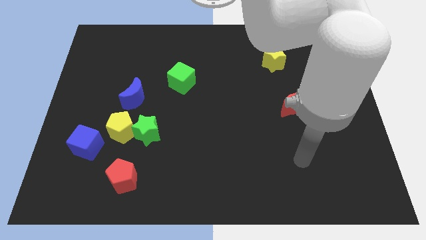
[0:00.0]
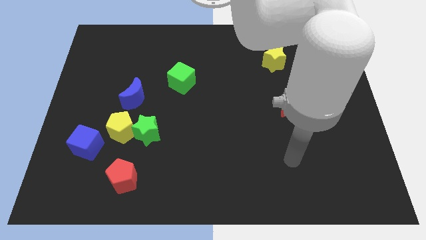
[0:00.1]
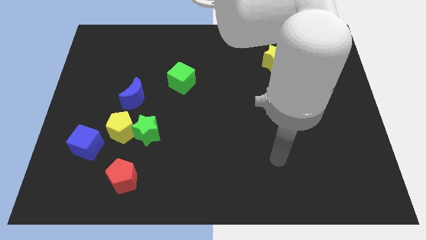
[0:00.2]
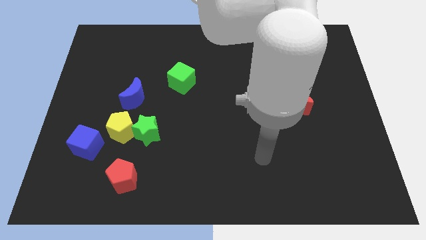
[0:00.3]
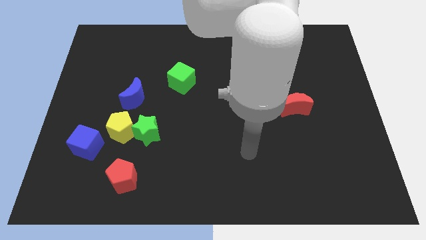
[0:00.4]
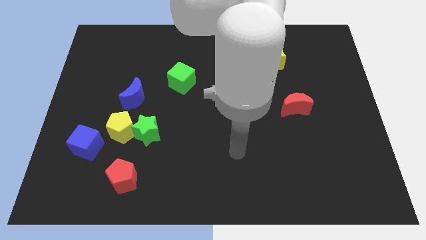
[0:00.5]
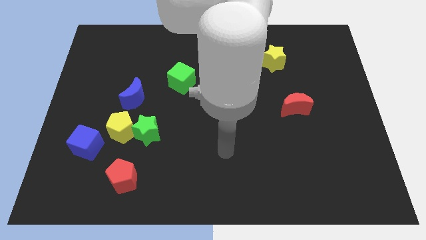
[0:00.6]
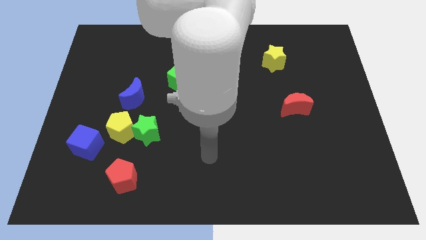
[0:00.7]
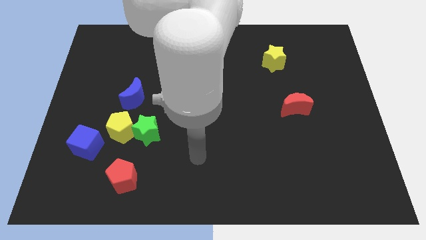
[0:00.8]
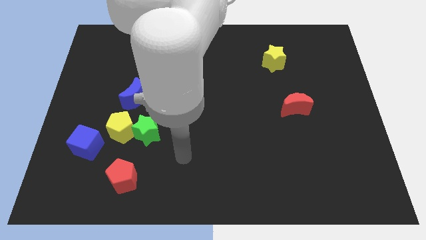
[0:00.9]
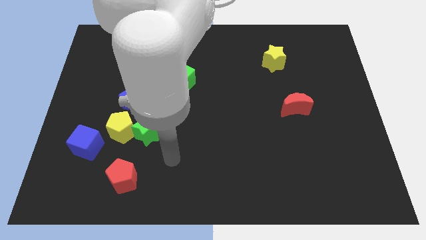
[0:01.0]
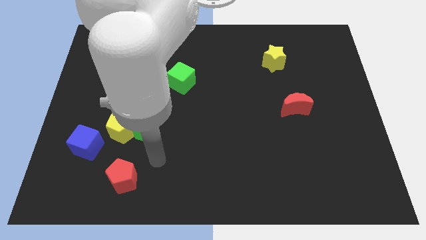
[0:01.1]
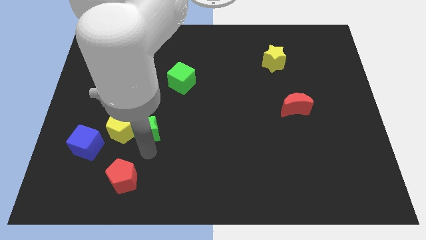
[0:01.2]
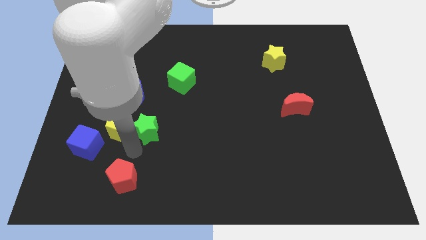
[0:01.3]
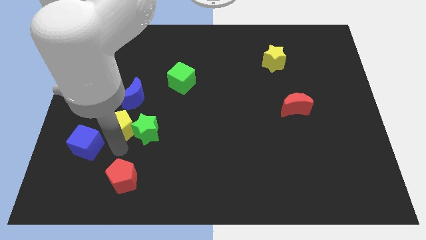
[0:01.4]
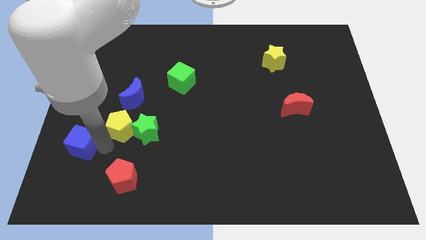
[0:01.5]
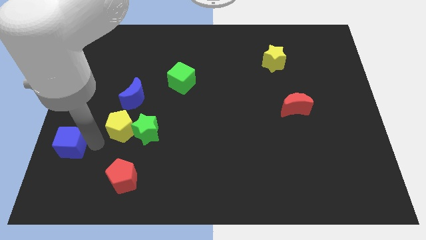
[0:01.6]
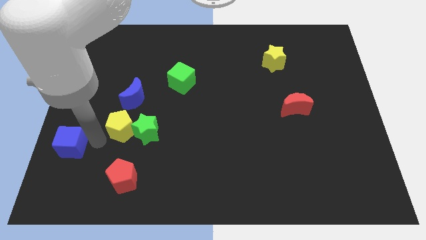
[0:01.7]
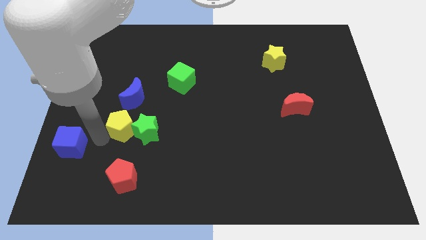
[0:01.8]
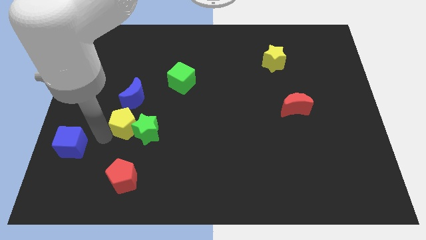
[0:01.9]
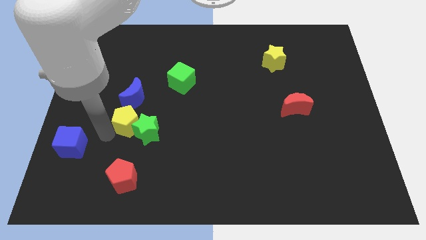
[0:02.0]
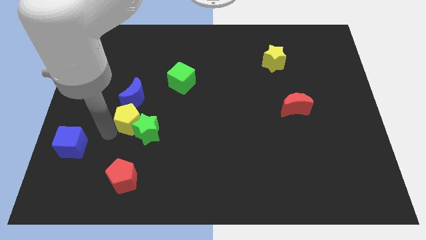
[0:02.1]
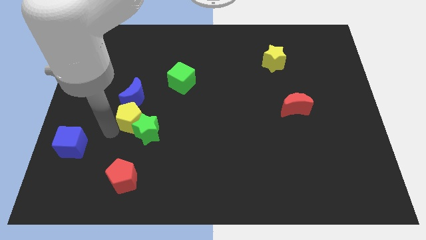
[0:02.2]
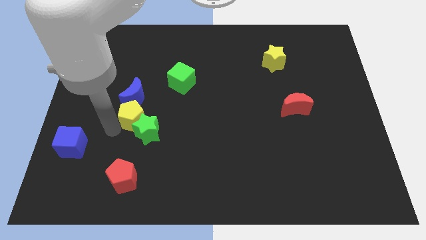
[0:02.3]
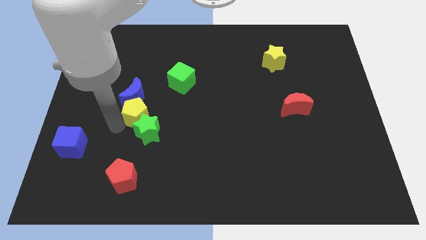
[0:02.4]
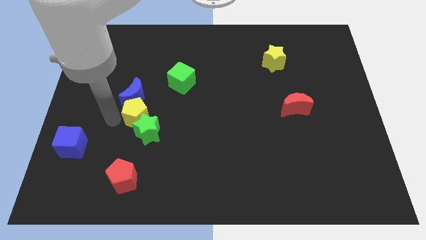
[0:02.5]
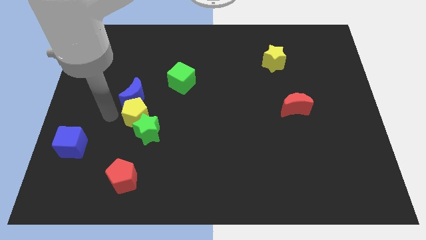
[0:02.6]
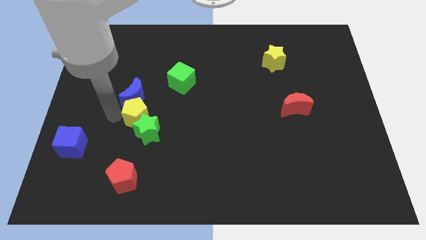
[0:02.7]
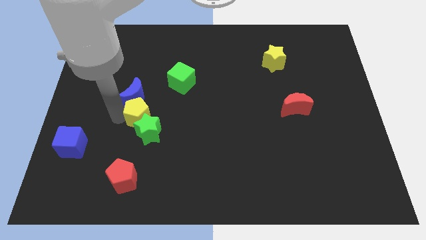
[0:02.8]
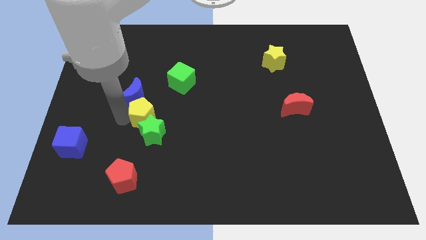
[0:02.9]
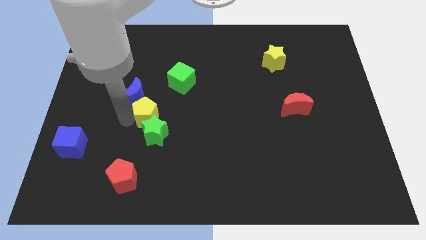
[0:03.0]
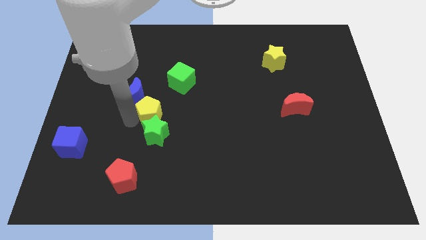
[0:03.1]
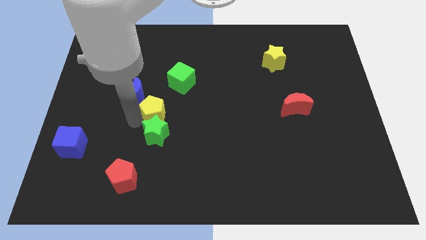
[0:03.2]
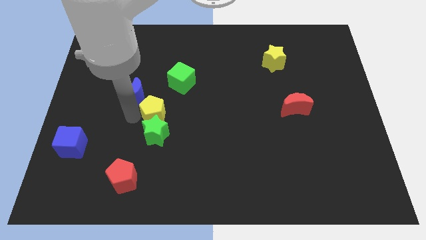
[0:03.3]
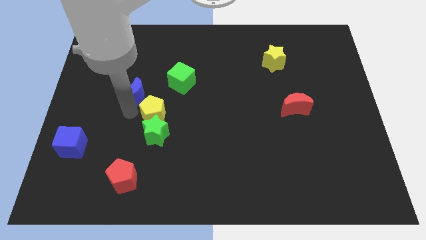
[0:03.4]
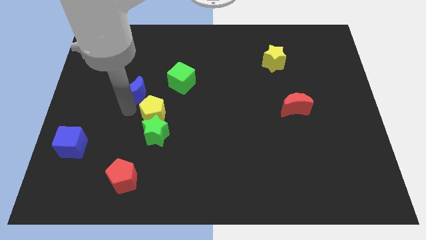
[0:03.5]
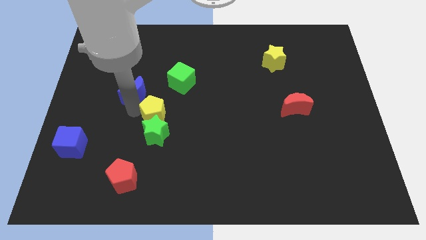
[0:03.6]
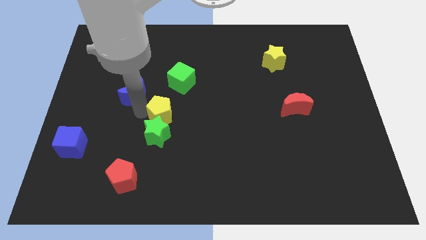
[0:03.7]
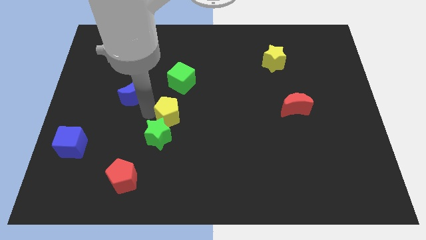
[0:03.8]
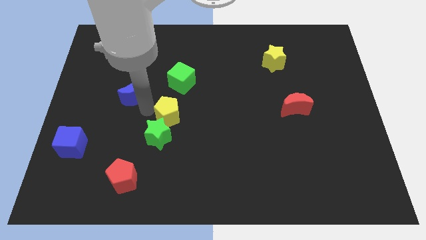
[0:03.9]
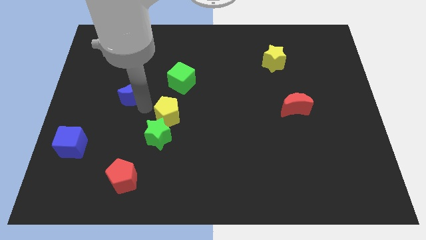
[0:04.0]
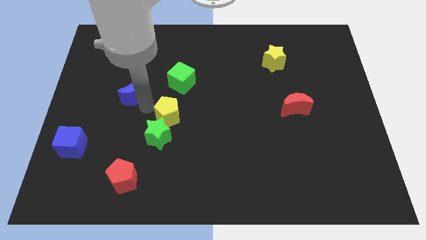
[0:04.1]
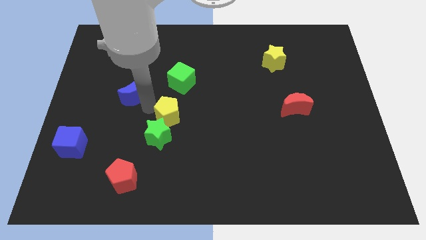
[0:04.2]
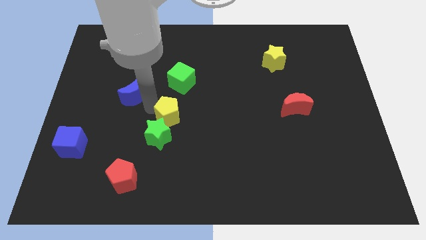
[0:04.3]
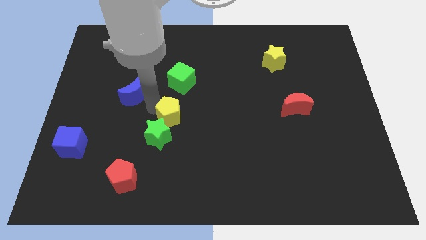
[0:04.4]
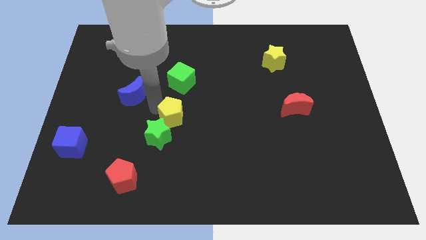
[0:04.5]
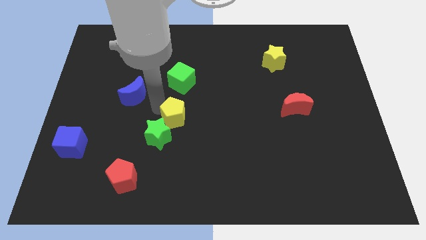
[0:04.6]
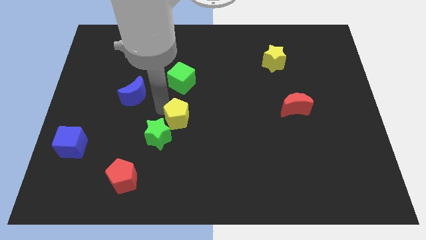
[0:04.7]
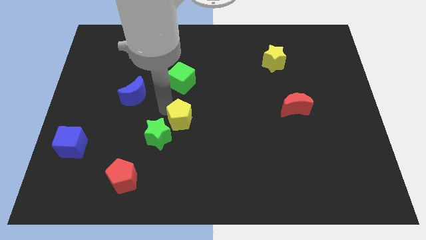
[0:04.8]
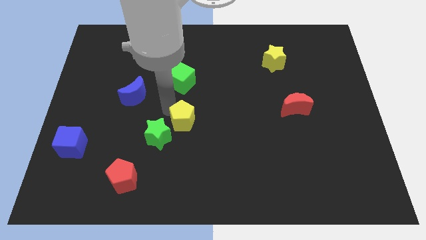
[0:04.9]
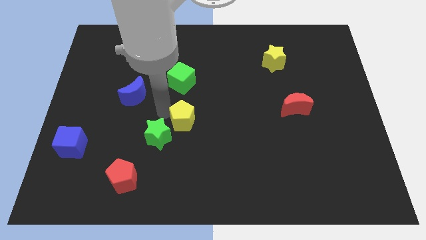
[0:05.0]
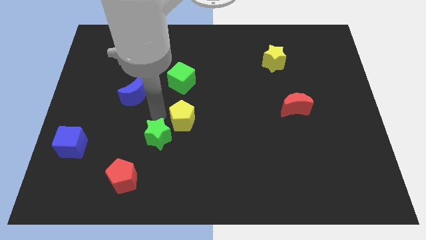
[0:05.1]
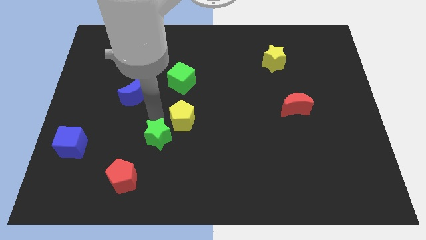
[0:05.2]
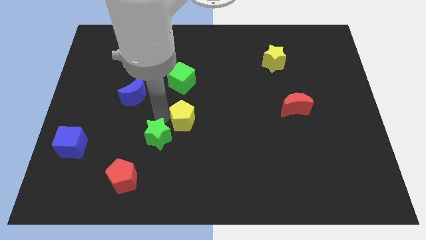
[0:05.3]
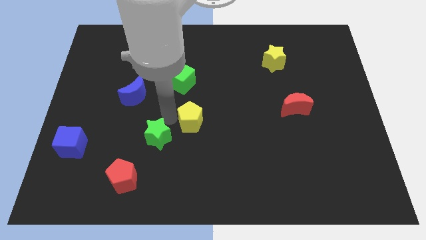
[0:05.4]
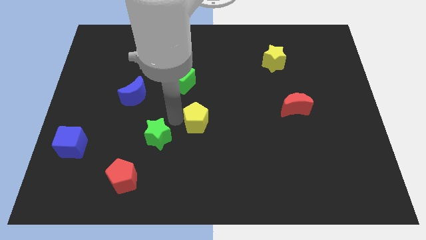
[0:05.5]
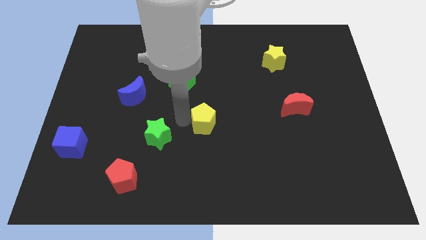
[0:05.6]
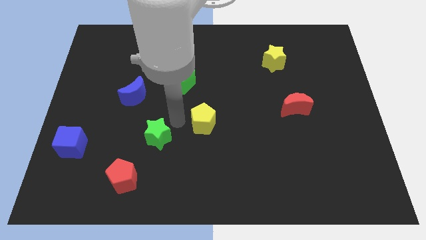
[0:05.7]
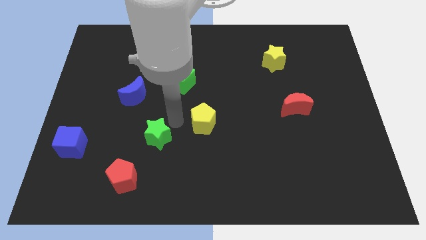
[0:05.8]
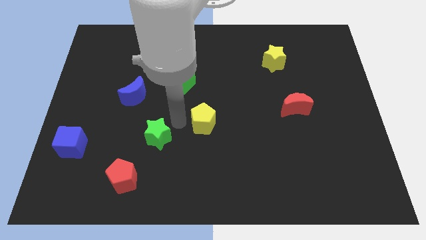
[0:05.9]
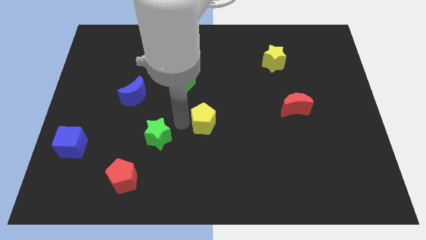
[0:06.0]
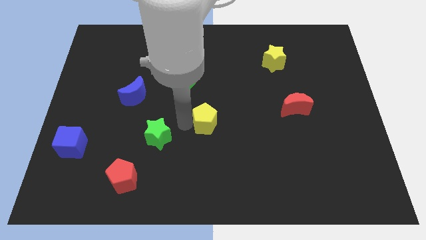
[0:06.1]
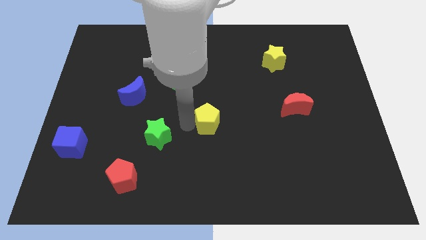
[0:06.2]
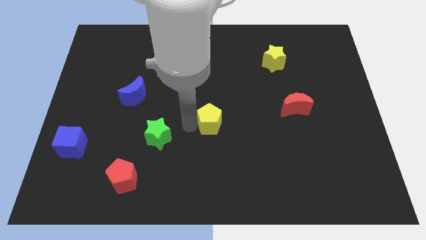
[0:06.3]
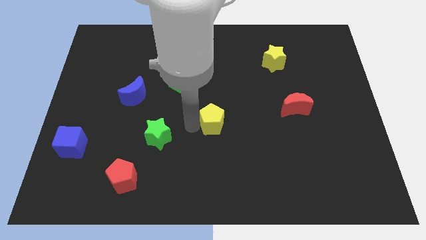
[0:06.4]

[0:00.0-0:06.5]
push the yellow pentagon to the right

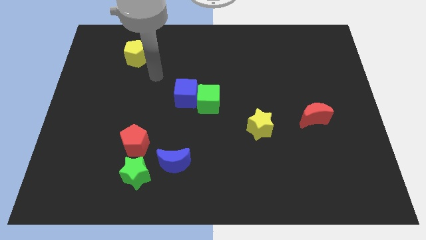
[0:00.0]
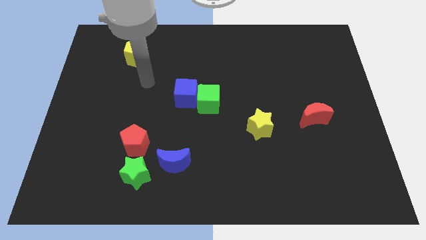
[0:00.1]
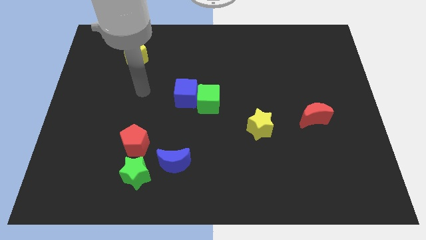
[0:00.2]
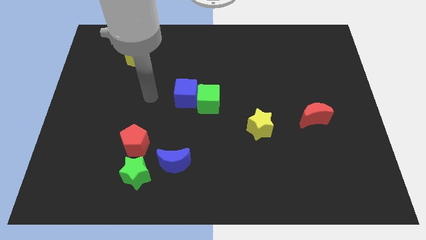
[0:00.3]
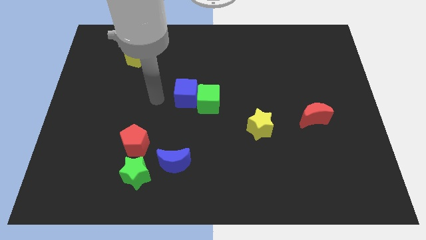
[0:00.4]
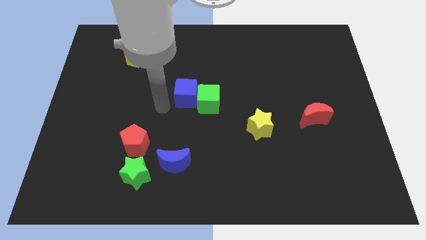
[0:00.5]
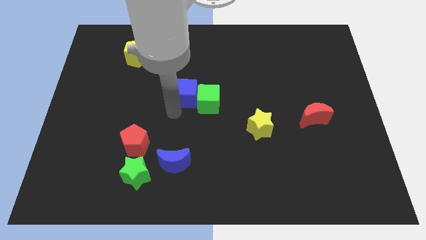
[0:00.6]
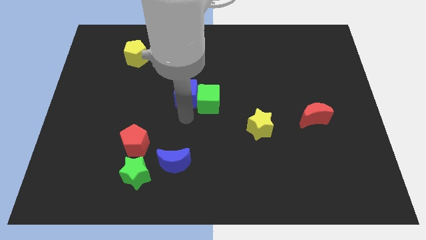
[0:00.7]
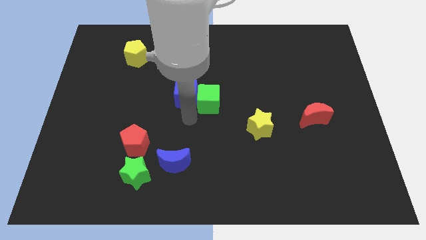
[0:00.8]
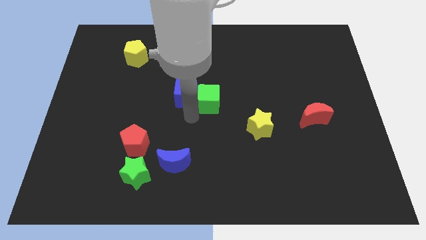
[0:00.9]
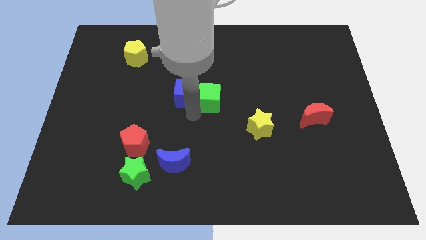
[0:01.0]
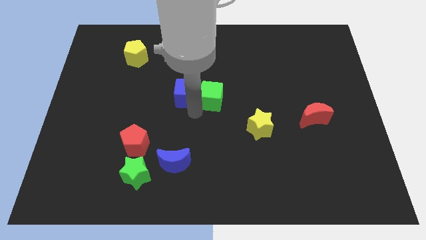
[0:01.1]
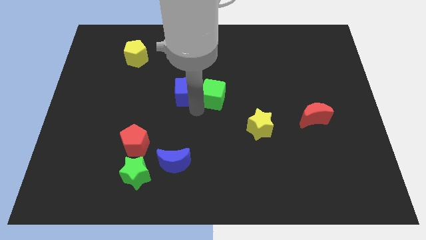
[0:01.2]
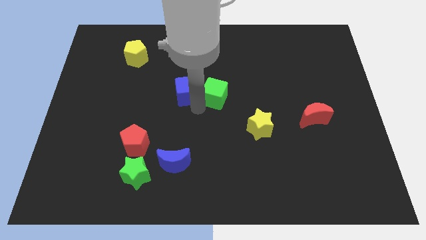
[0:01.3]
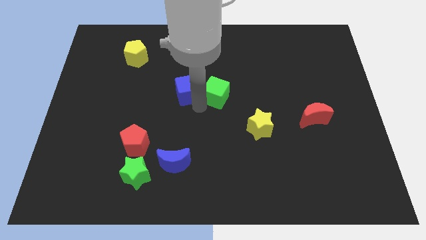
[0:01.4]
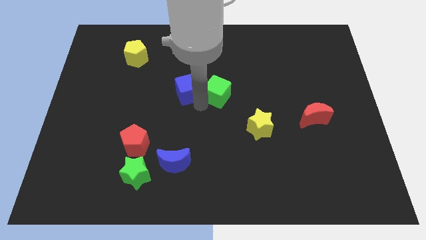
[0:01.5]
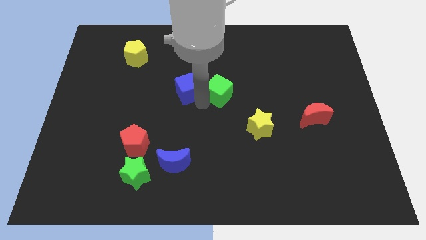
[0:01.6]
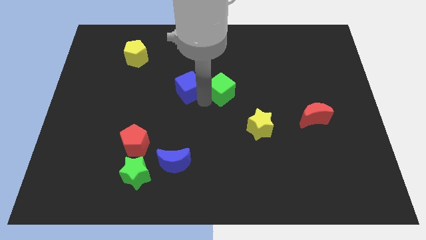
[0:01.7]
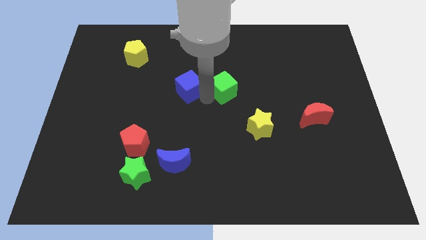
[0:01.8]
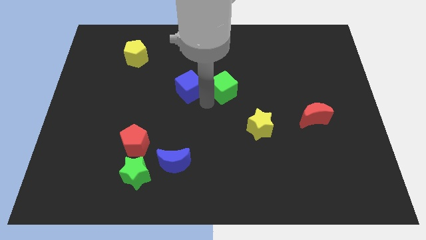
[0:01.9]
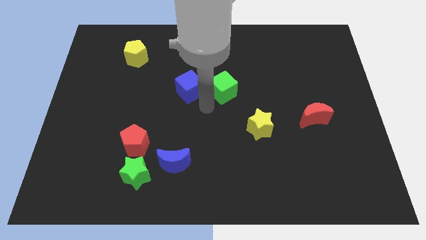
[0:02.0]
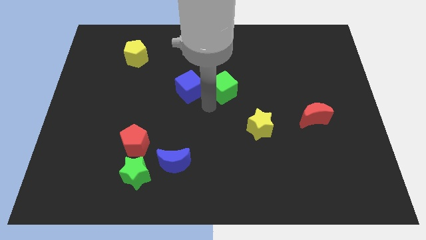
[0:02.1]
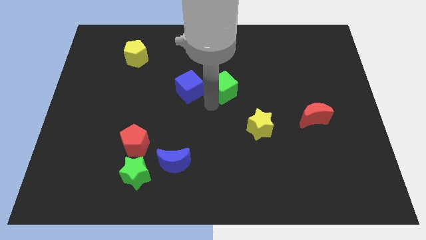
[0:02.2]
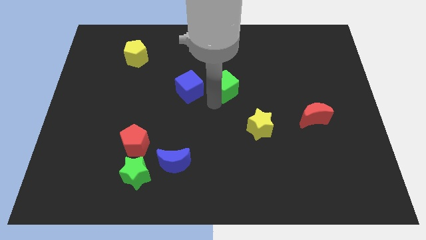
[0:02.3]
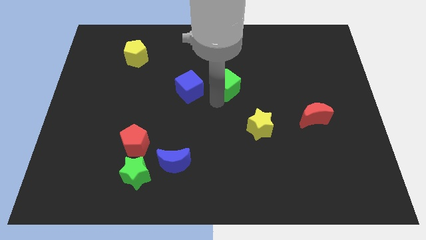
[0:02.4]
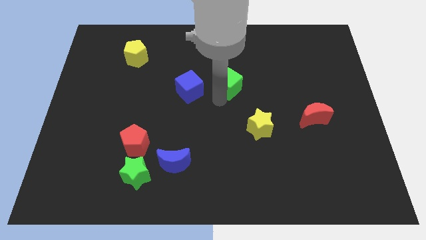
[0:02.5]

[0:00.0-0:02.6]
move the green cube up and then to the right a bit
